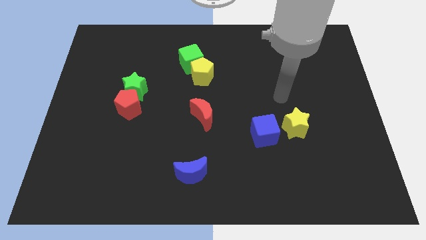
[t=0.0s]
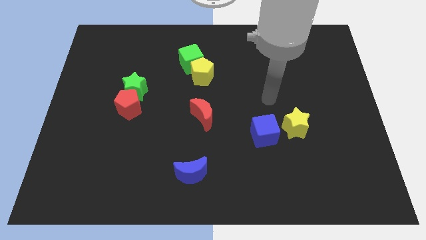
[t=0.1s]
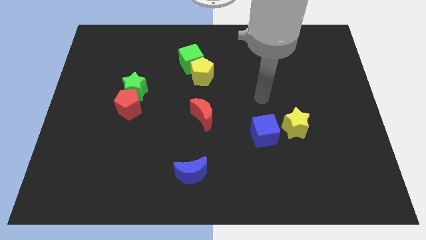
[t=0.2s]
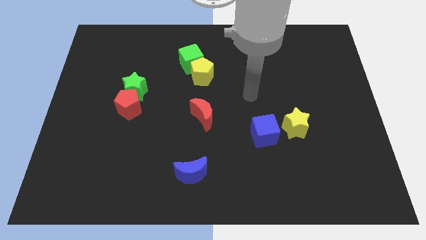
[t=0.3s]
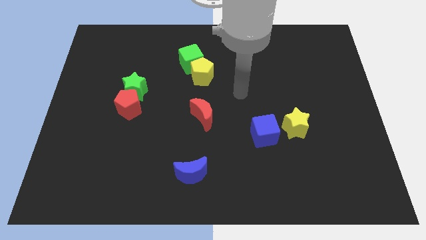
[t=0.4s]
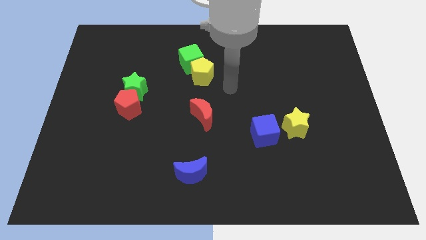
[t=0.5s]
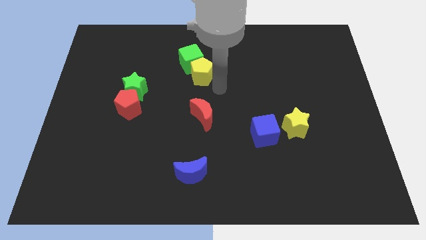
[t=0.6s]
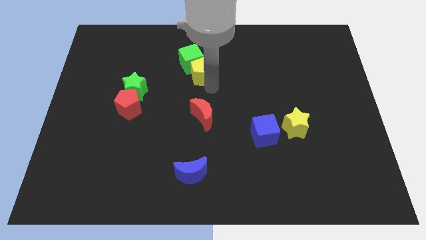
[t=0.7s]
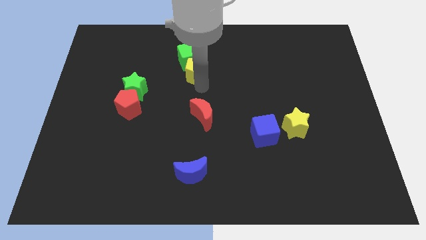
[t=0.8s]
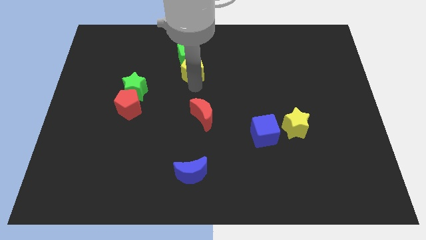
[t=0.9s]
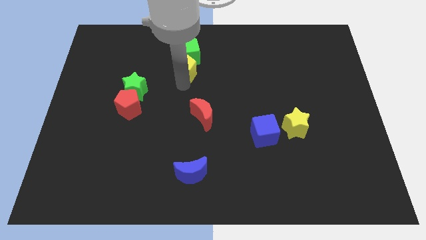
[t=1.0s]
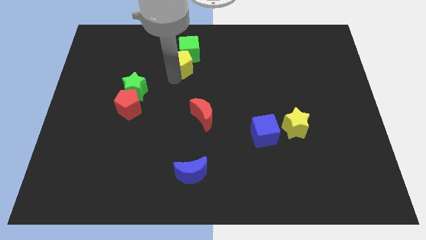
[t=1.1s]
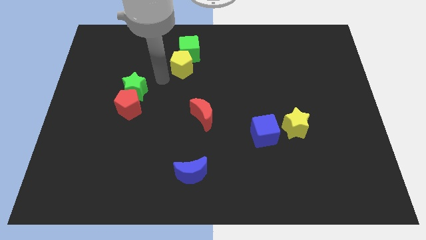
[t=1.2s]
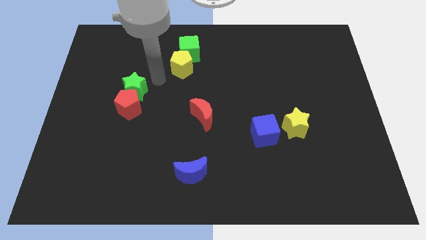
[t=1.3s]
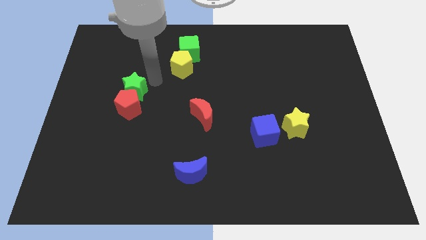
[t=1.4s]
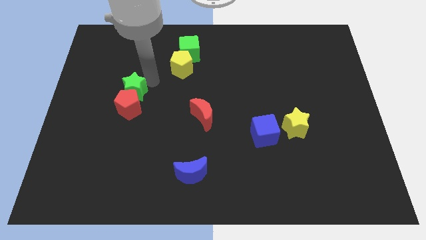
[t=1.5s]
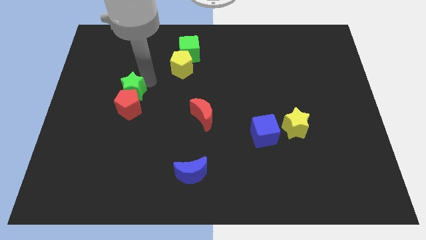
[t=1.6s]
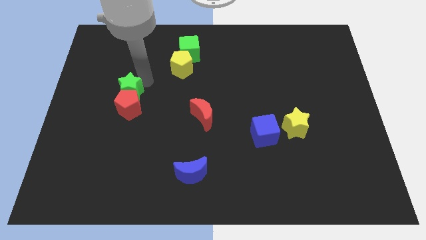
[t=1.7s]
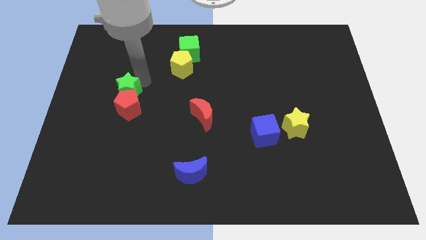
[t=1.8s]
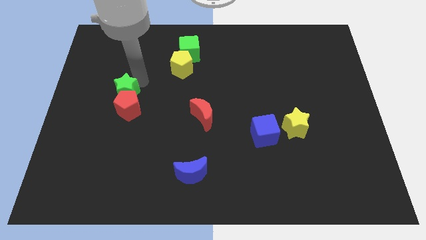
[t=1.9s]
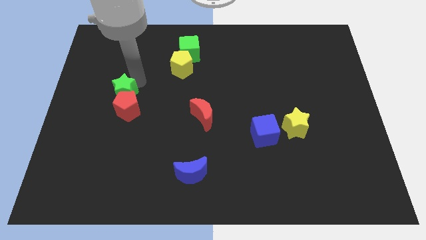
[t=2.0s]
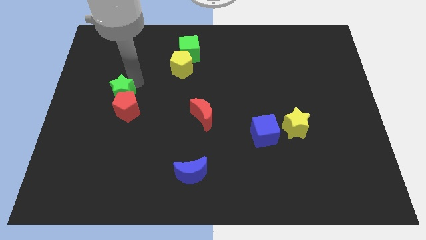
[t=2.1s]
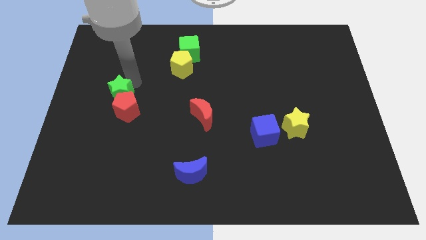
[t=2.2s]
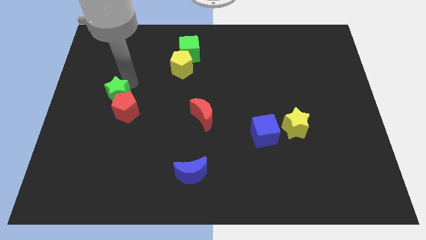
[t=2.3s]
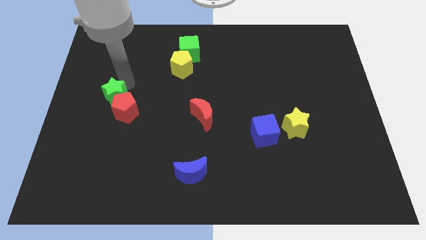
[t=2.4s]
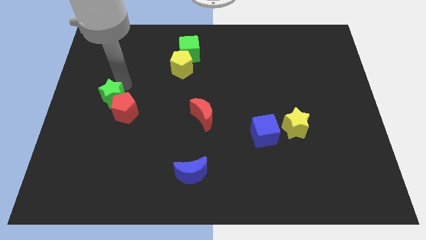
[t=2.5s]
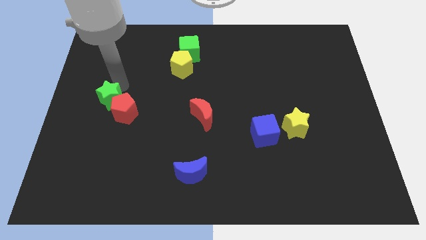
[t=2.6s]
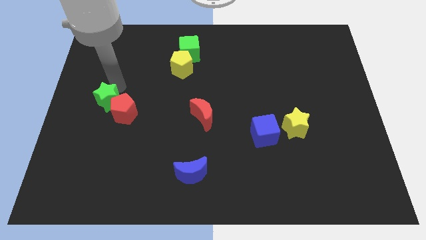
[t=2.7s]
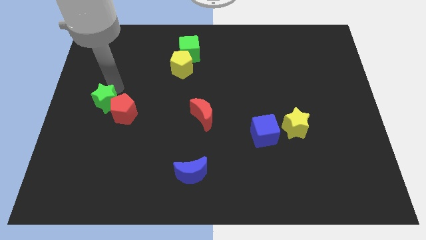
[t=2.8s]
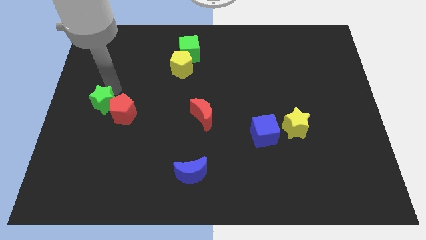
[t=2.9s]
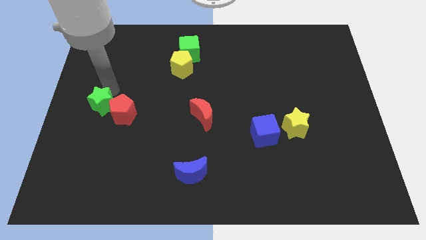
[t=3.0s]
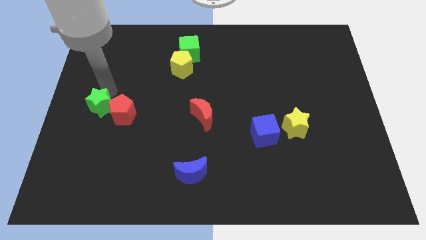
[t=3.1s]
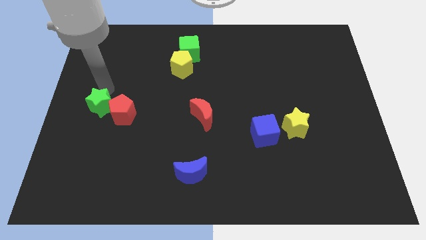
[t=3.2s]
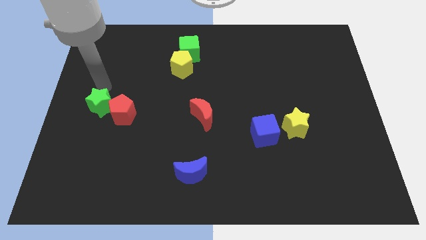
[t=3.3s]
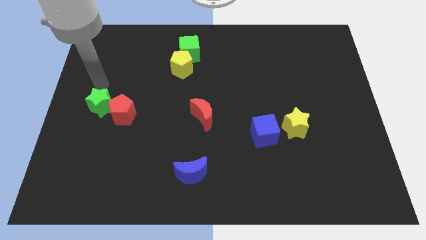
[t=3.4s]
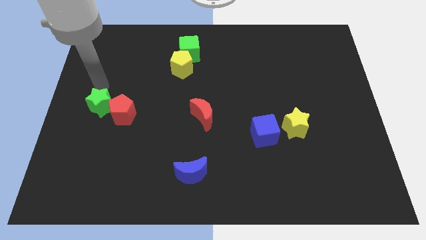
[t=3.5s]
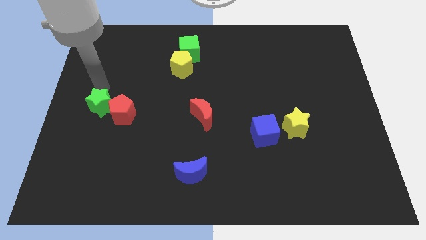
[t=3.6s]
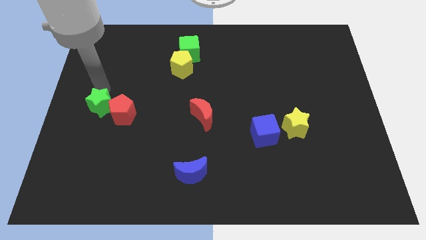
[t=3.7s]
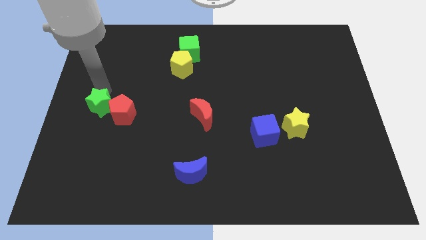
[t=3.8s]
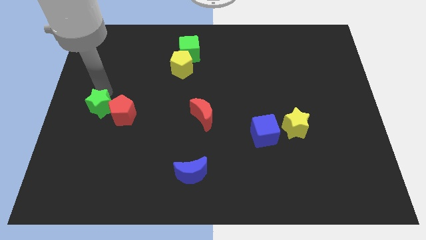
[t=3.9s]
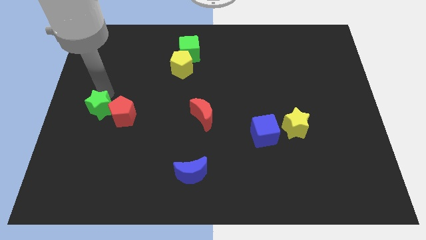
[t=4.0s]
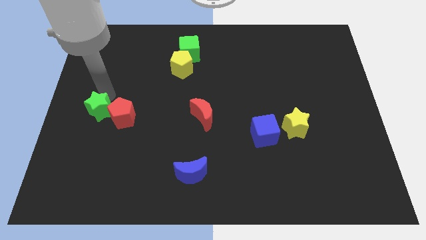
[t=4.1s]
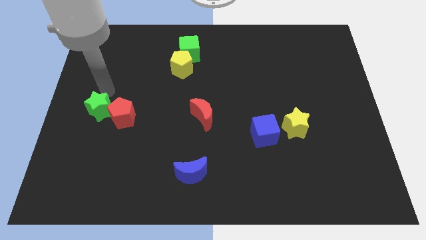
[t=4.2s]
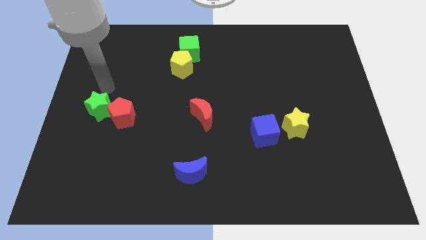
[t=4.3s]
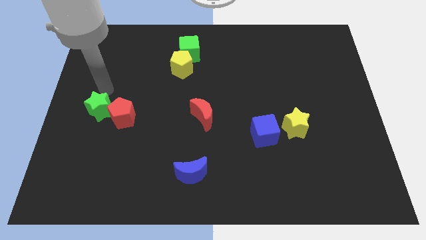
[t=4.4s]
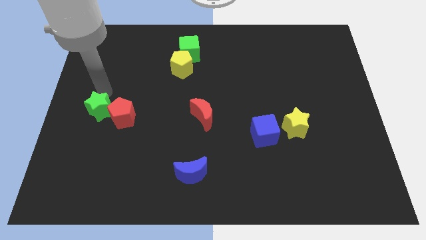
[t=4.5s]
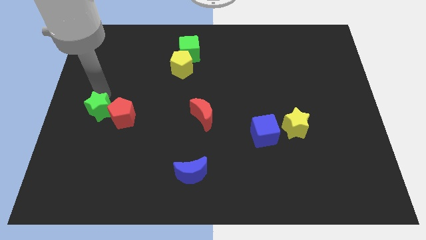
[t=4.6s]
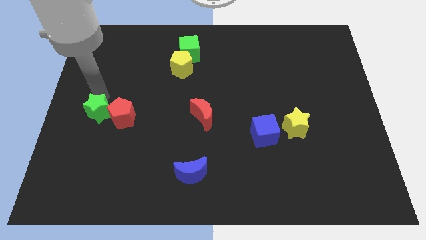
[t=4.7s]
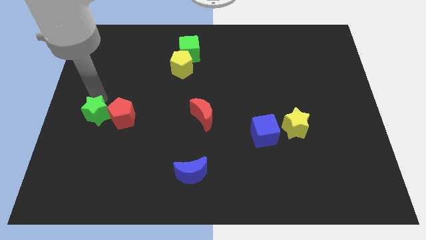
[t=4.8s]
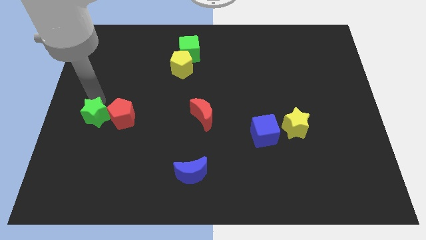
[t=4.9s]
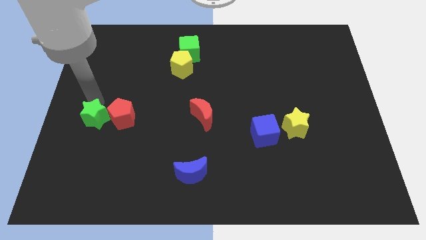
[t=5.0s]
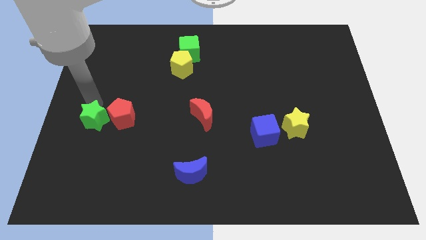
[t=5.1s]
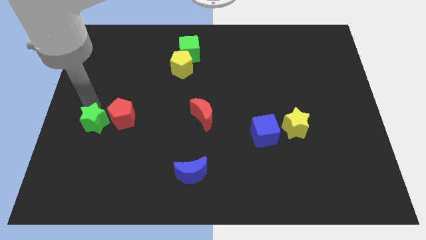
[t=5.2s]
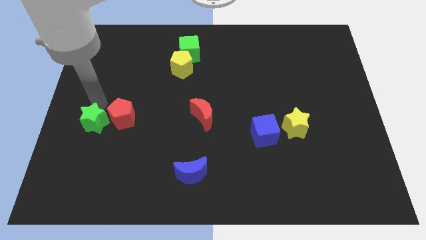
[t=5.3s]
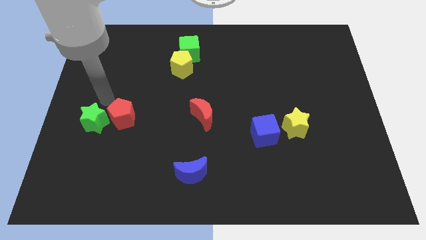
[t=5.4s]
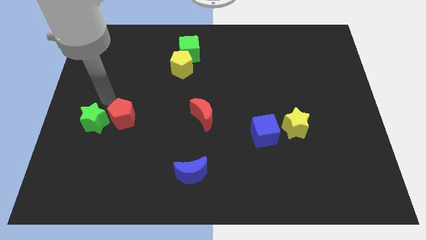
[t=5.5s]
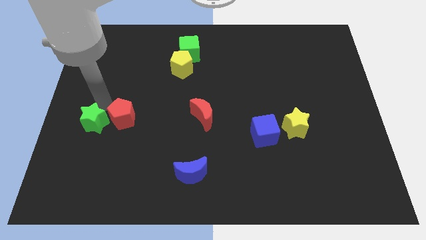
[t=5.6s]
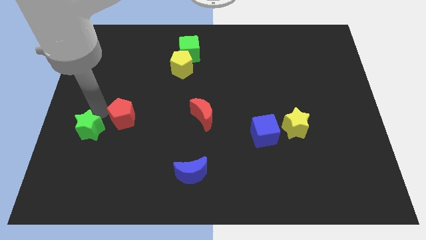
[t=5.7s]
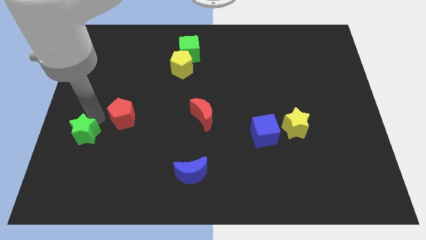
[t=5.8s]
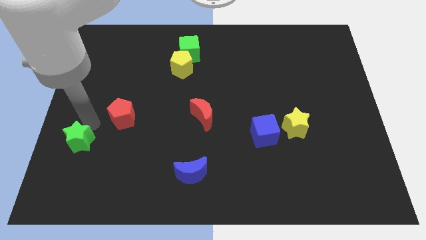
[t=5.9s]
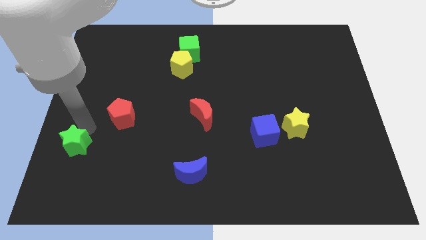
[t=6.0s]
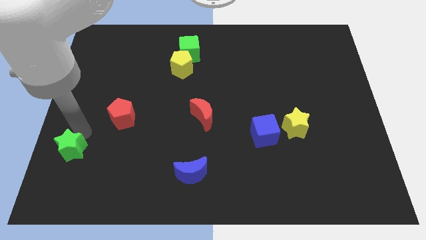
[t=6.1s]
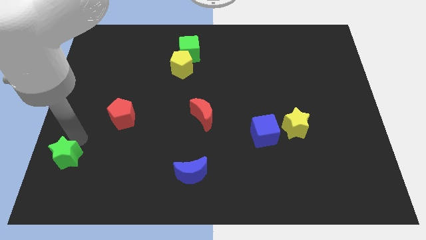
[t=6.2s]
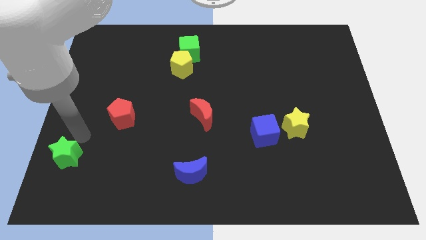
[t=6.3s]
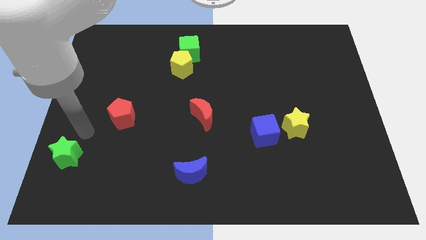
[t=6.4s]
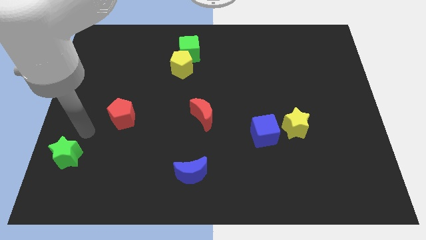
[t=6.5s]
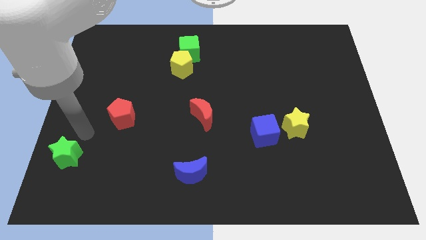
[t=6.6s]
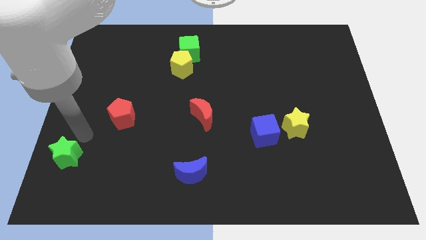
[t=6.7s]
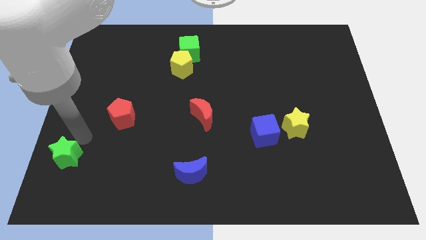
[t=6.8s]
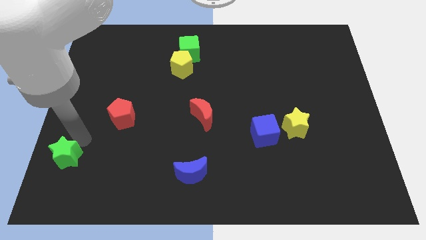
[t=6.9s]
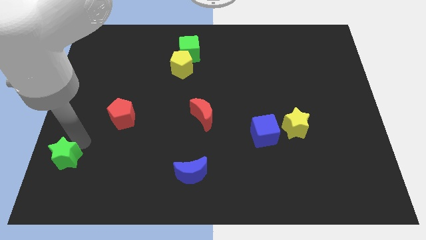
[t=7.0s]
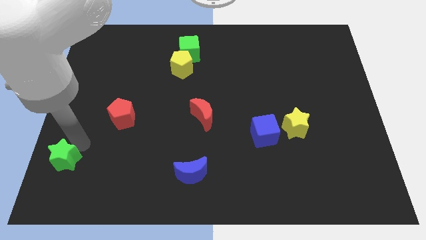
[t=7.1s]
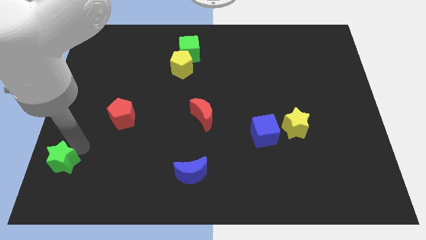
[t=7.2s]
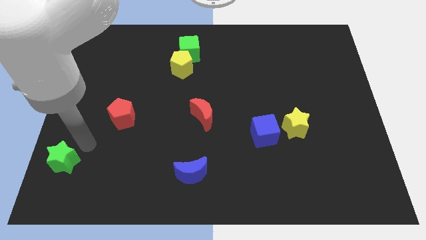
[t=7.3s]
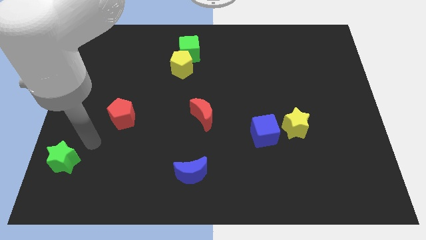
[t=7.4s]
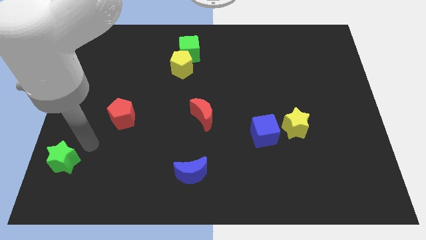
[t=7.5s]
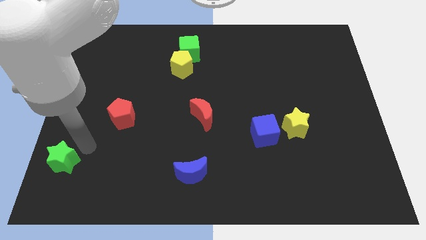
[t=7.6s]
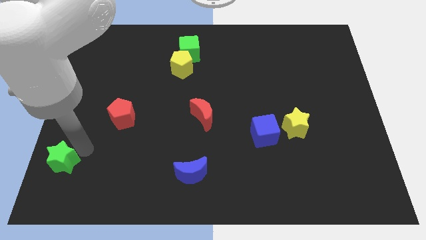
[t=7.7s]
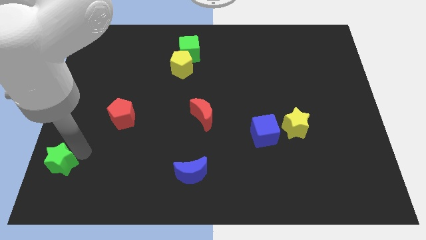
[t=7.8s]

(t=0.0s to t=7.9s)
slide the green star to the bottom left of the board
